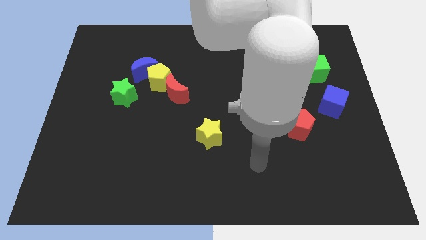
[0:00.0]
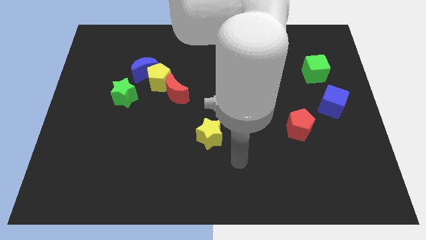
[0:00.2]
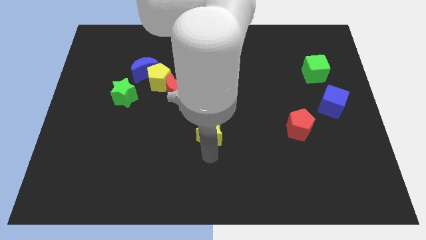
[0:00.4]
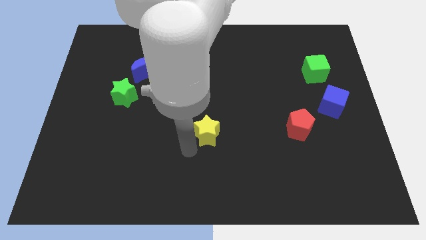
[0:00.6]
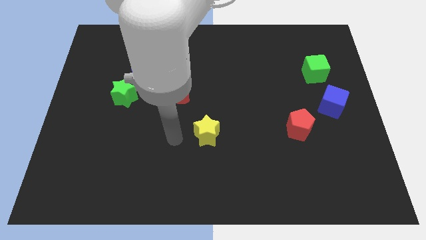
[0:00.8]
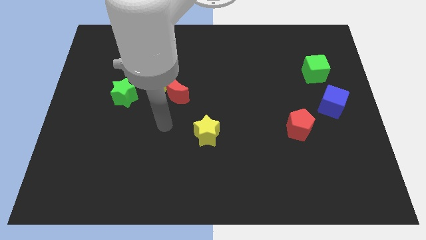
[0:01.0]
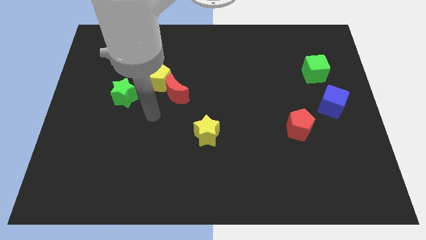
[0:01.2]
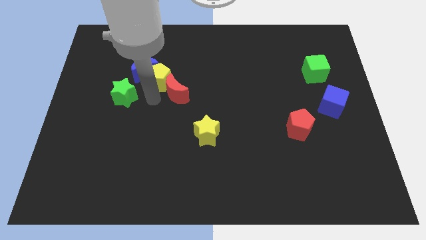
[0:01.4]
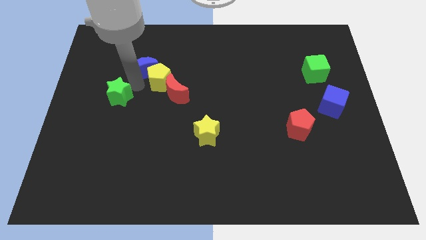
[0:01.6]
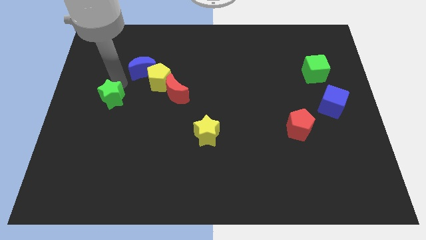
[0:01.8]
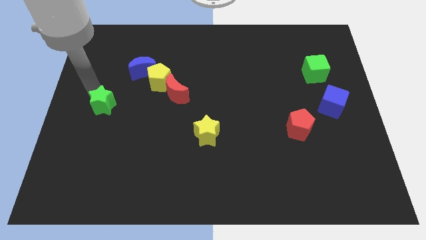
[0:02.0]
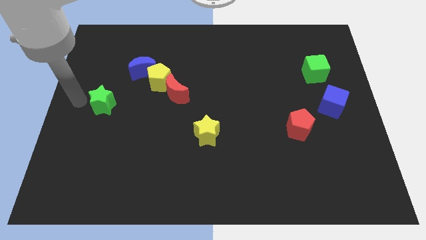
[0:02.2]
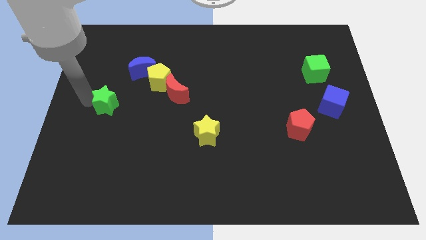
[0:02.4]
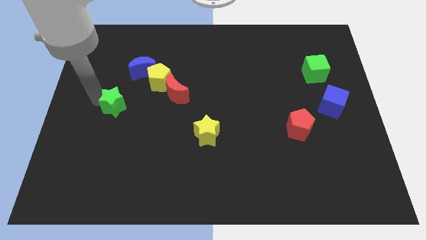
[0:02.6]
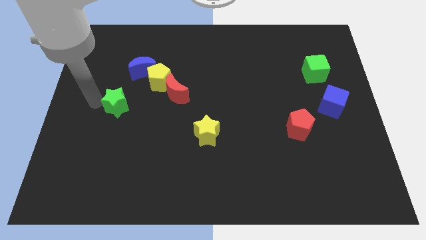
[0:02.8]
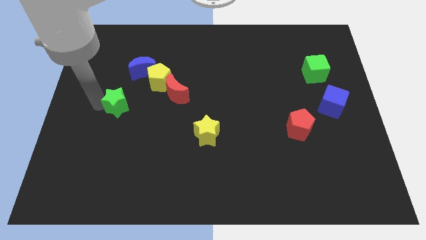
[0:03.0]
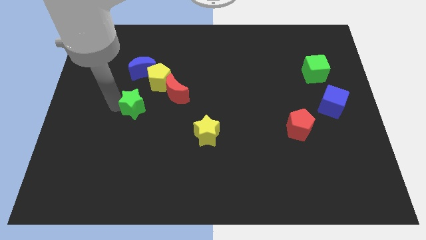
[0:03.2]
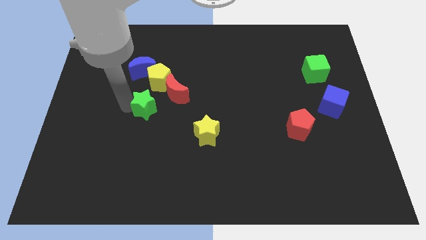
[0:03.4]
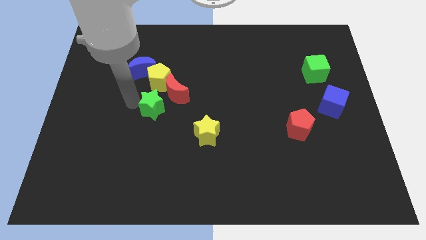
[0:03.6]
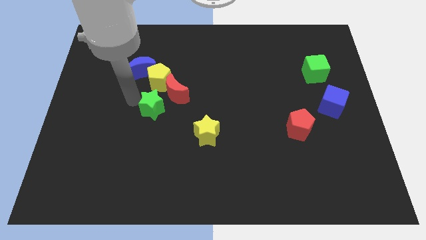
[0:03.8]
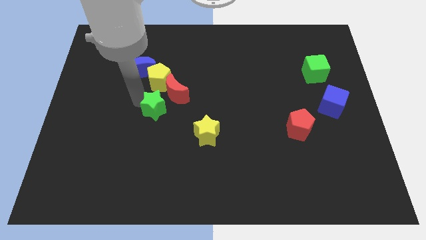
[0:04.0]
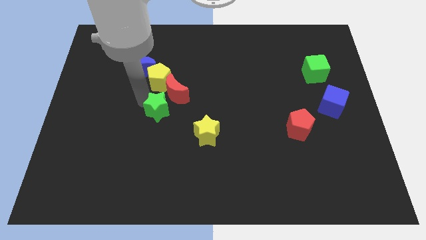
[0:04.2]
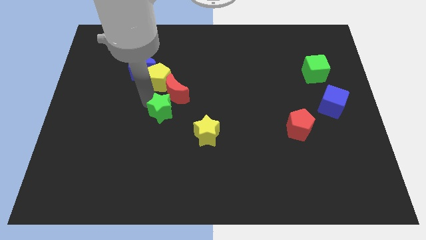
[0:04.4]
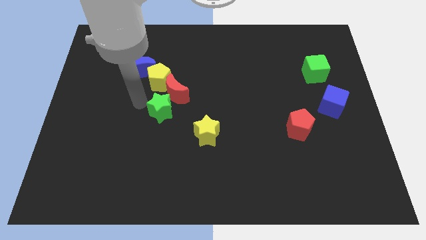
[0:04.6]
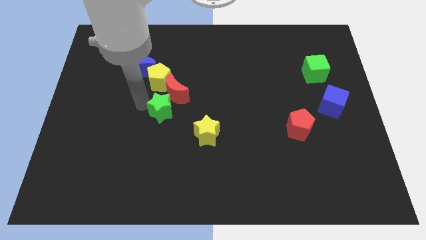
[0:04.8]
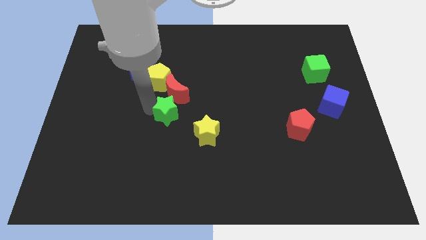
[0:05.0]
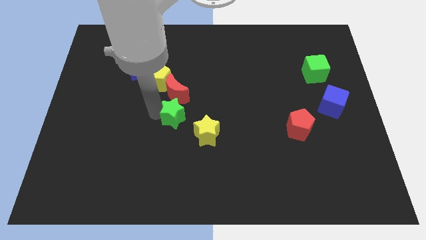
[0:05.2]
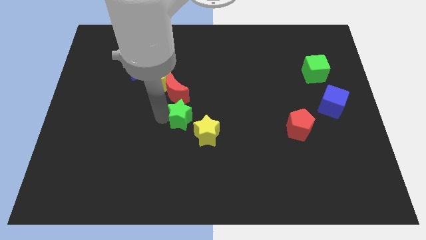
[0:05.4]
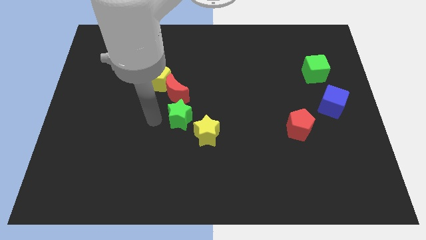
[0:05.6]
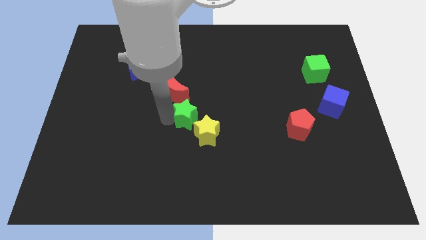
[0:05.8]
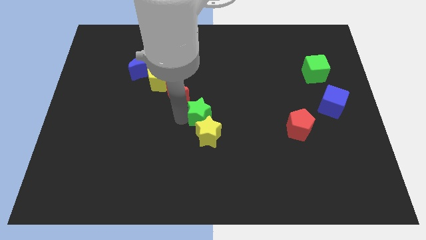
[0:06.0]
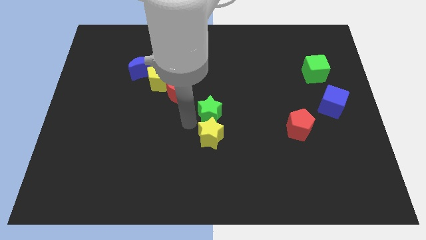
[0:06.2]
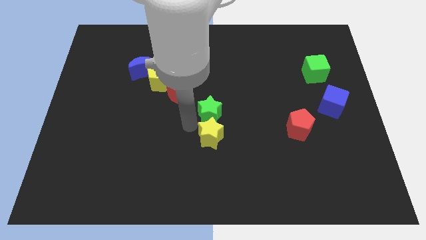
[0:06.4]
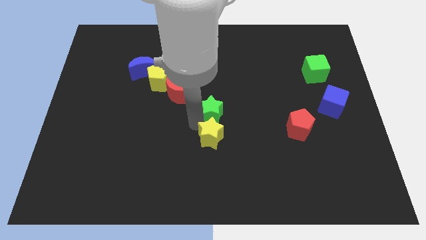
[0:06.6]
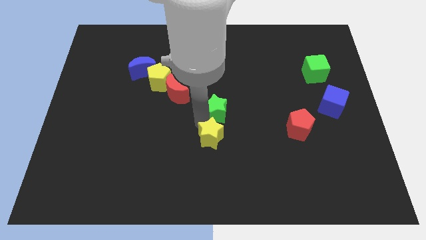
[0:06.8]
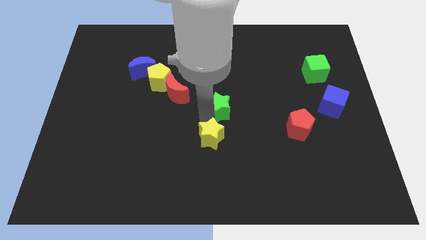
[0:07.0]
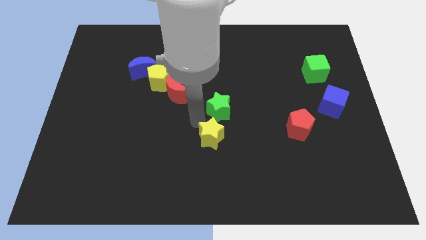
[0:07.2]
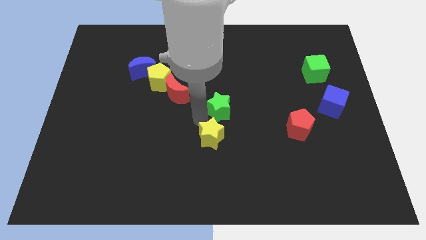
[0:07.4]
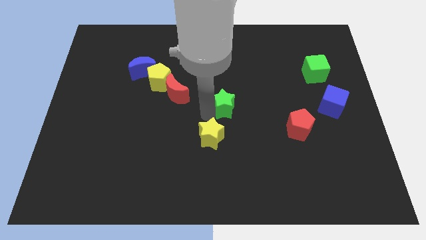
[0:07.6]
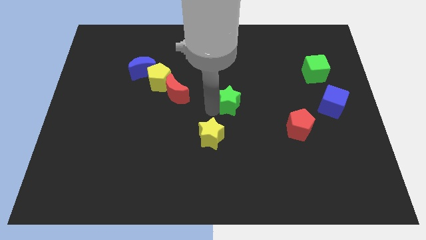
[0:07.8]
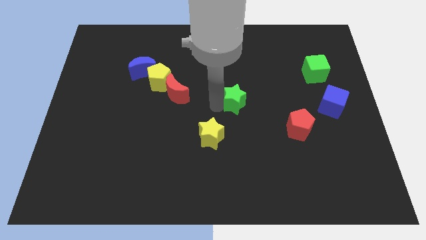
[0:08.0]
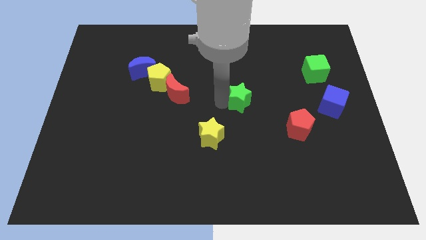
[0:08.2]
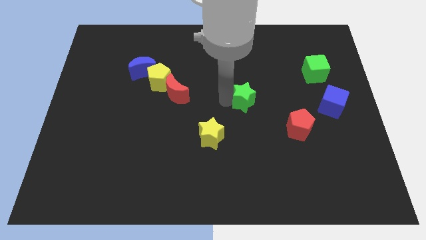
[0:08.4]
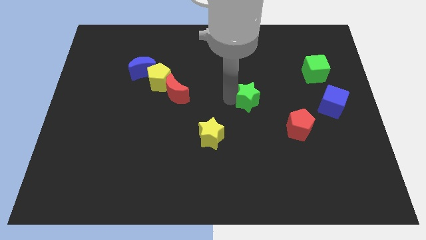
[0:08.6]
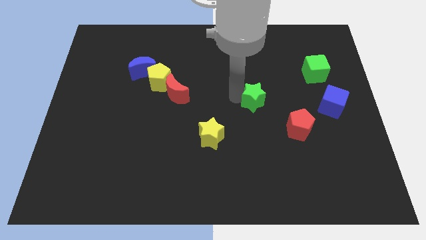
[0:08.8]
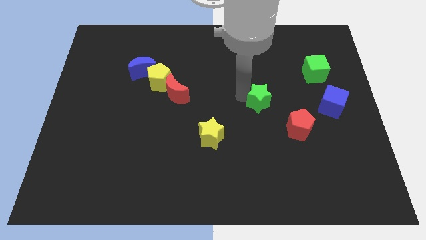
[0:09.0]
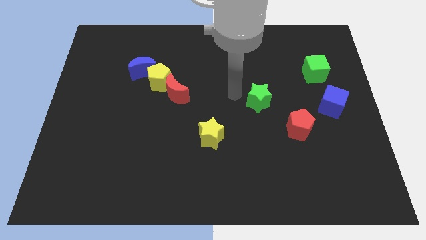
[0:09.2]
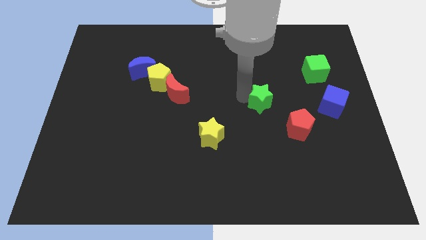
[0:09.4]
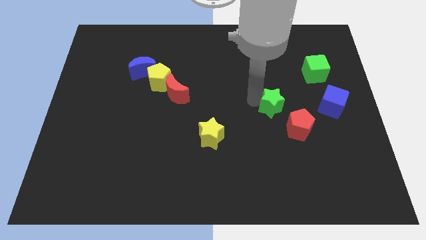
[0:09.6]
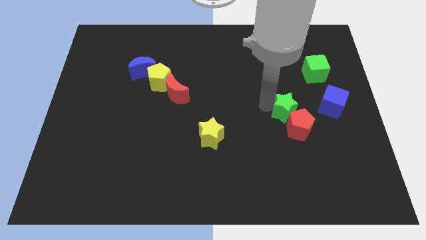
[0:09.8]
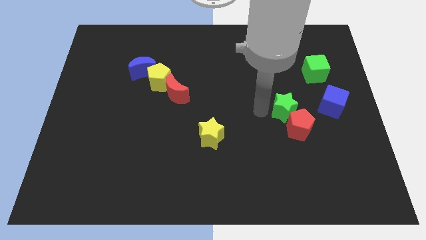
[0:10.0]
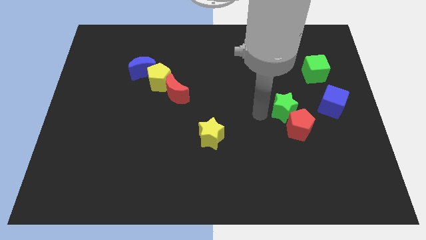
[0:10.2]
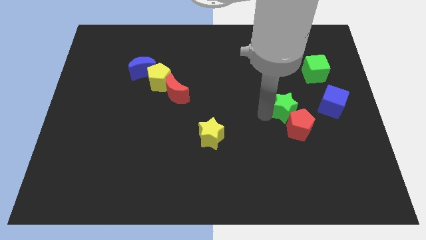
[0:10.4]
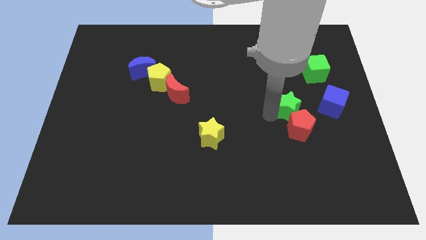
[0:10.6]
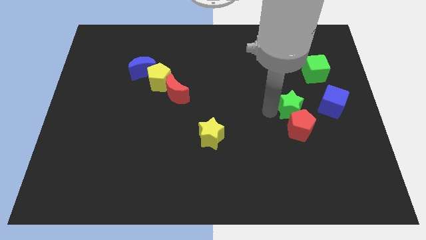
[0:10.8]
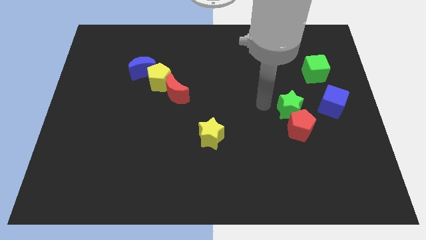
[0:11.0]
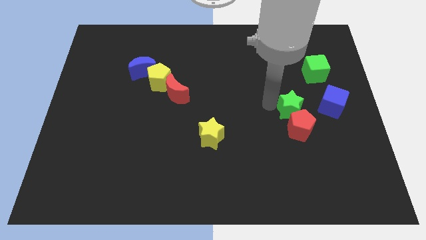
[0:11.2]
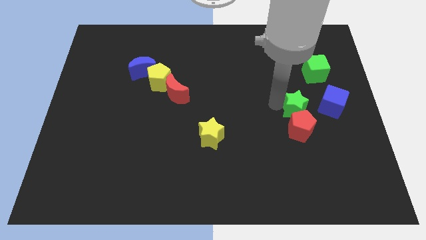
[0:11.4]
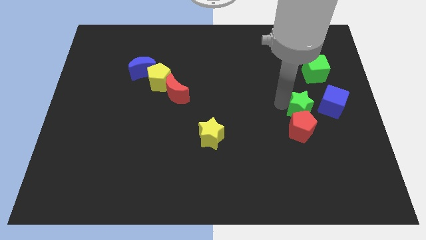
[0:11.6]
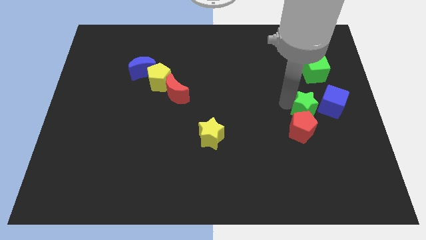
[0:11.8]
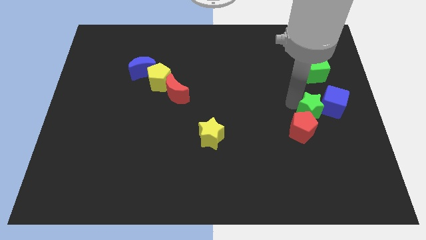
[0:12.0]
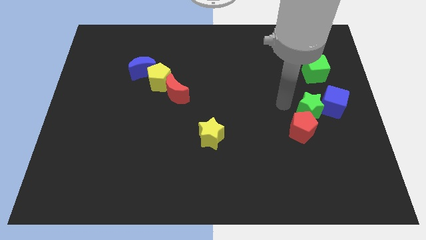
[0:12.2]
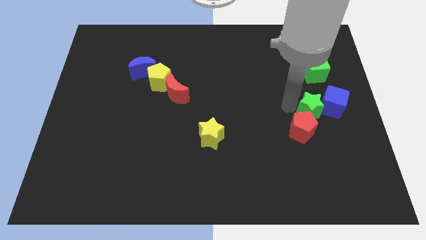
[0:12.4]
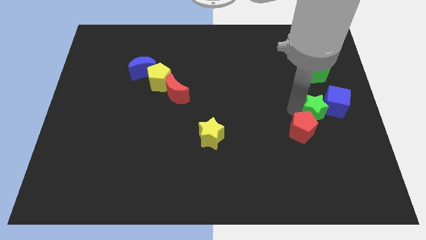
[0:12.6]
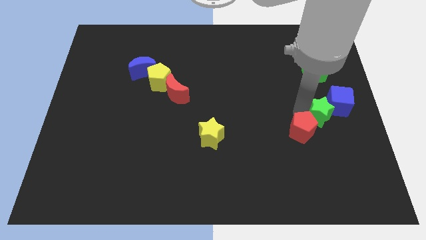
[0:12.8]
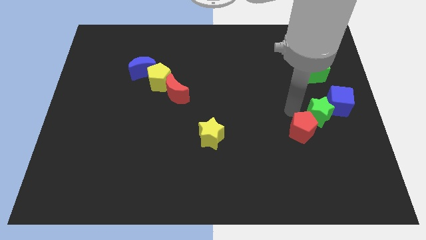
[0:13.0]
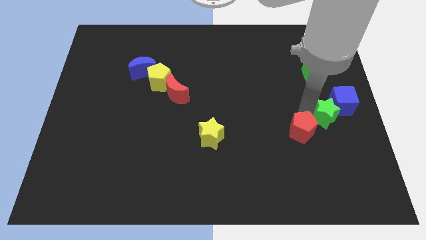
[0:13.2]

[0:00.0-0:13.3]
push the green star to the right side

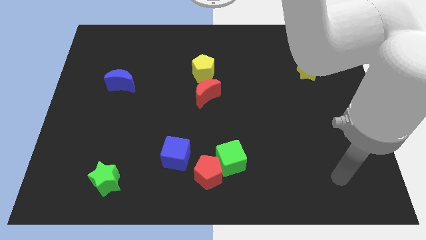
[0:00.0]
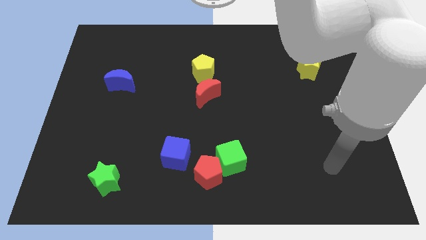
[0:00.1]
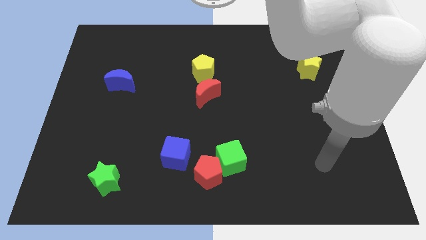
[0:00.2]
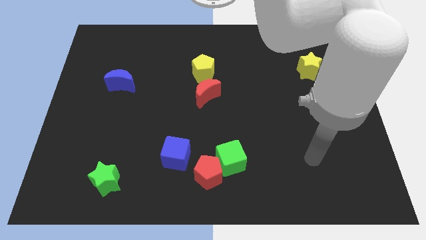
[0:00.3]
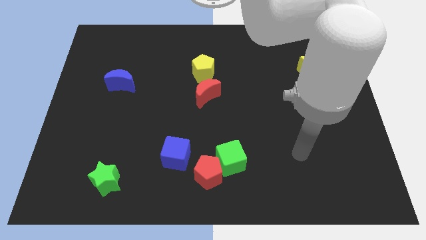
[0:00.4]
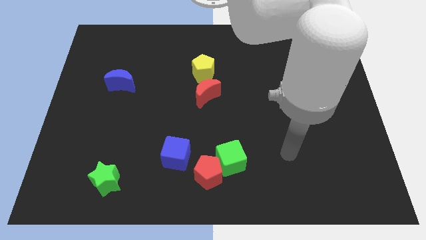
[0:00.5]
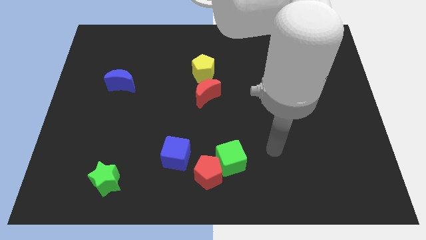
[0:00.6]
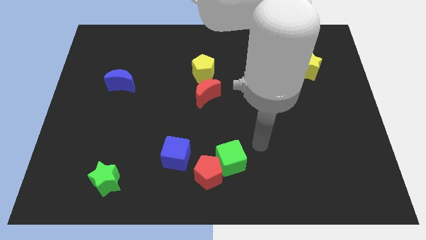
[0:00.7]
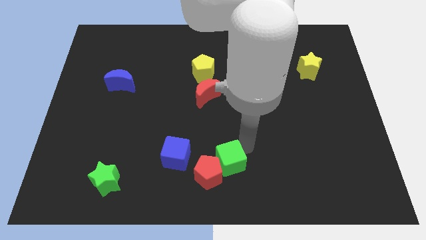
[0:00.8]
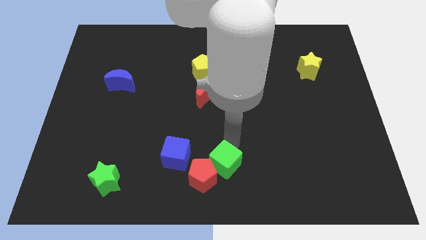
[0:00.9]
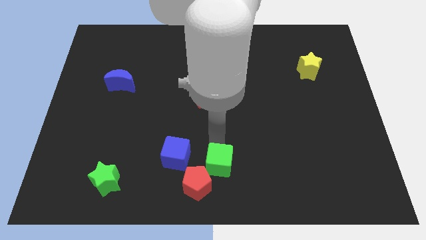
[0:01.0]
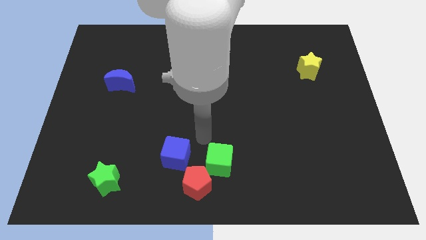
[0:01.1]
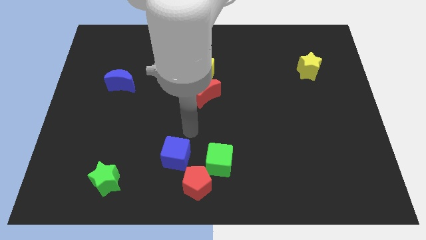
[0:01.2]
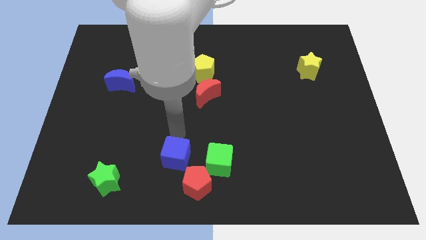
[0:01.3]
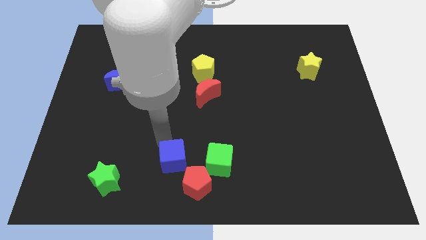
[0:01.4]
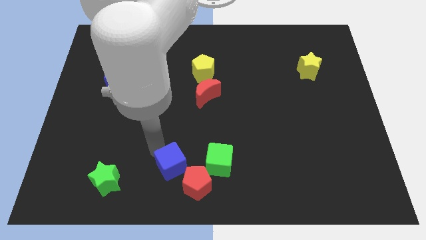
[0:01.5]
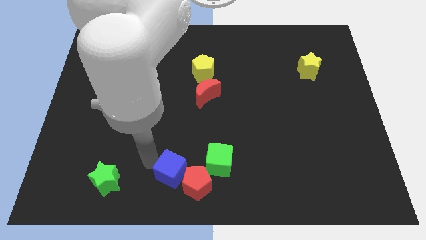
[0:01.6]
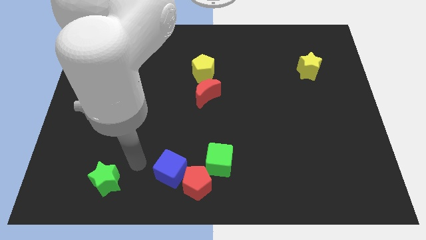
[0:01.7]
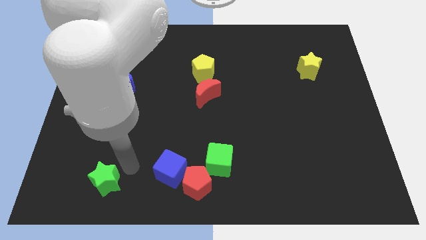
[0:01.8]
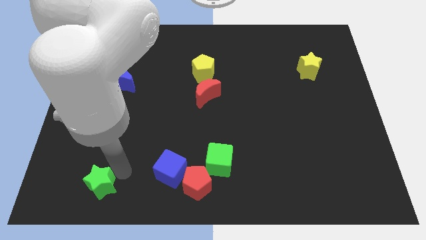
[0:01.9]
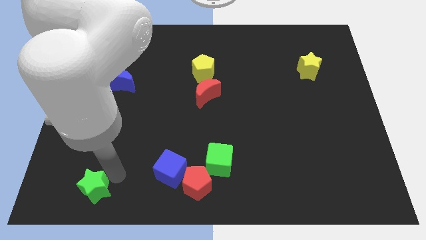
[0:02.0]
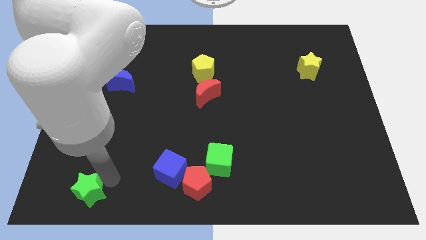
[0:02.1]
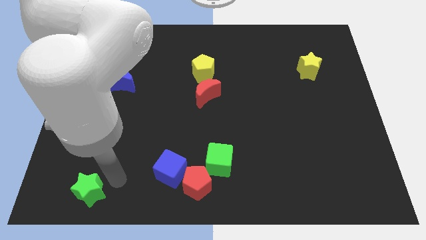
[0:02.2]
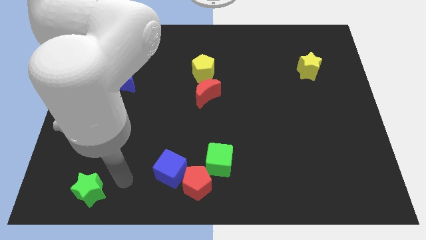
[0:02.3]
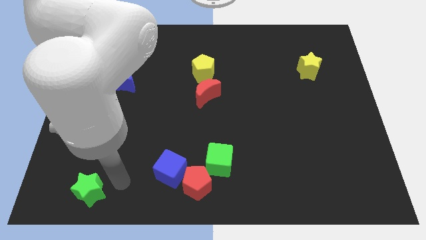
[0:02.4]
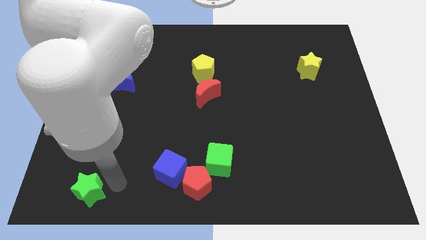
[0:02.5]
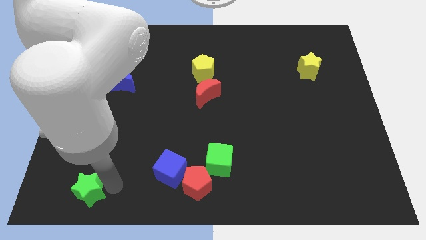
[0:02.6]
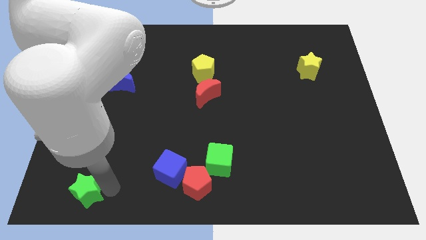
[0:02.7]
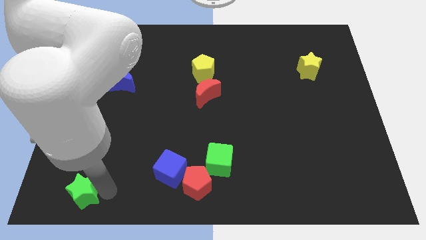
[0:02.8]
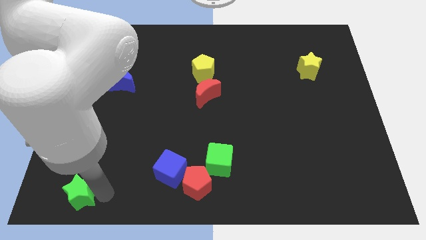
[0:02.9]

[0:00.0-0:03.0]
push the green star to the bottom left
